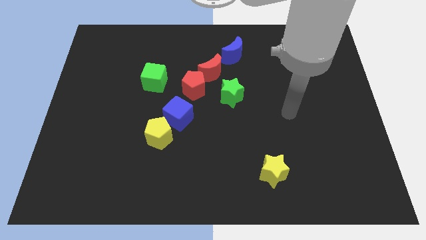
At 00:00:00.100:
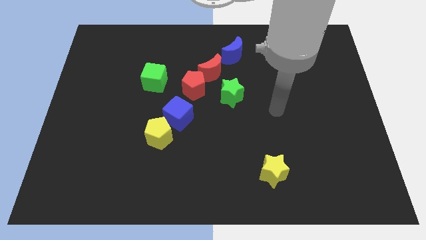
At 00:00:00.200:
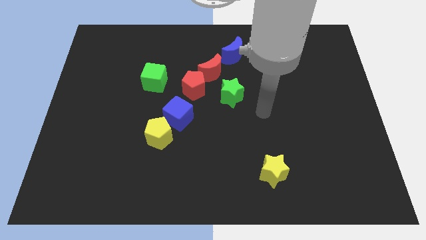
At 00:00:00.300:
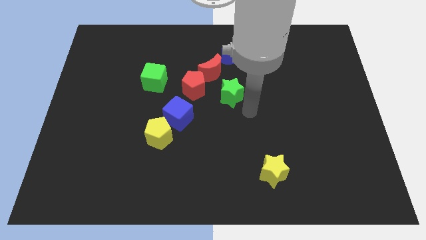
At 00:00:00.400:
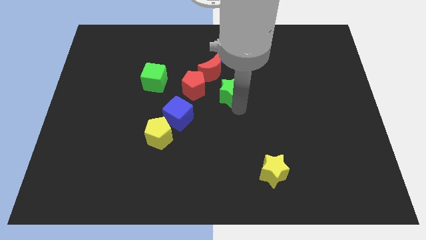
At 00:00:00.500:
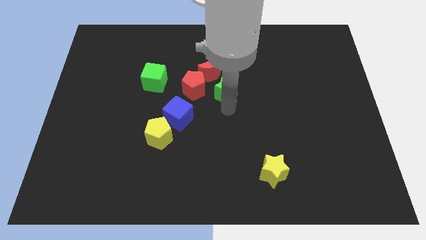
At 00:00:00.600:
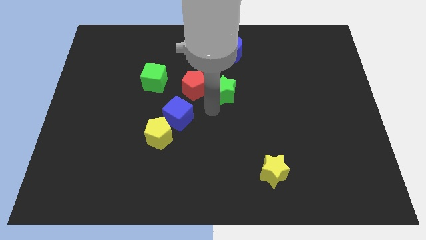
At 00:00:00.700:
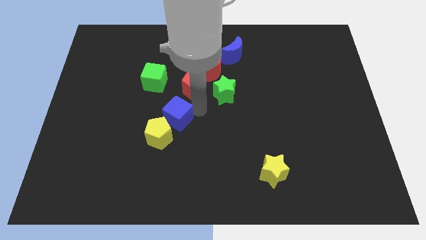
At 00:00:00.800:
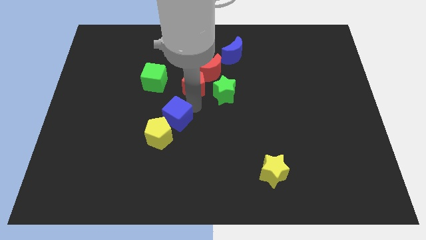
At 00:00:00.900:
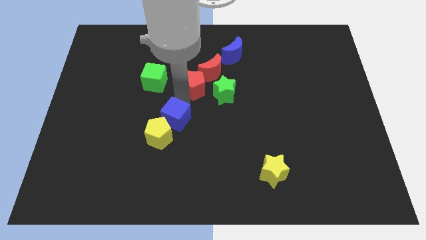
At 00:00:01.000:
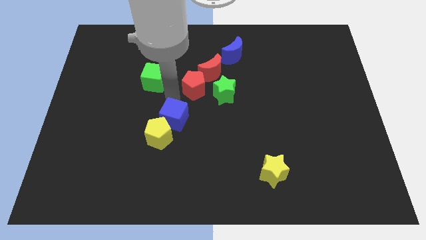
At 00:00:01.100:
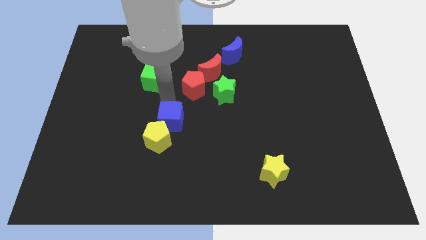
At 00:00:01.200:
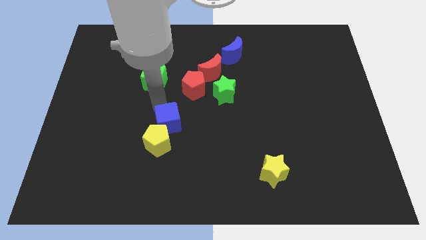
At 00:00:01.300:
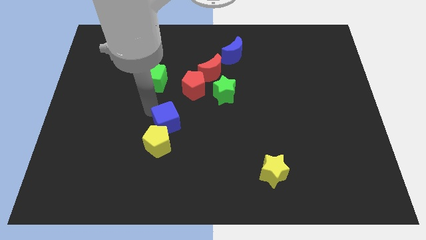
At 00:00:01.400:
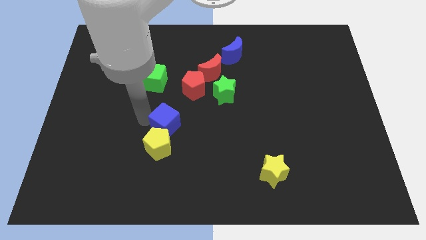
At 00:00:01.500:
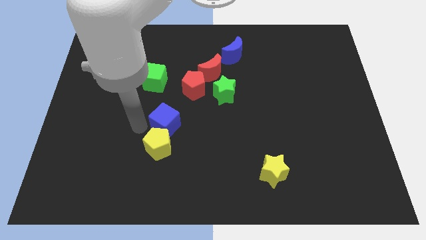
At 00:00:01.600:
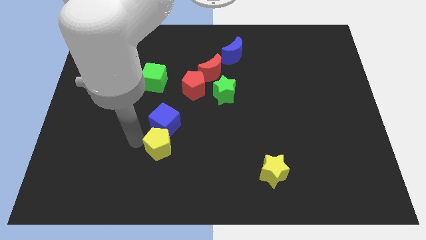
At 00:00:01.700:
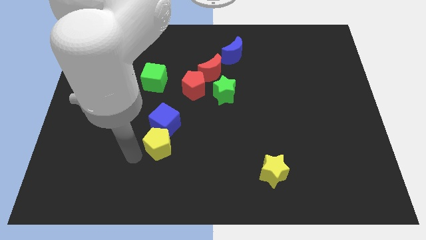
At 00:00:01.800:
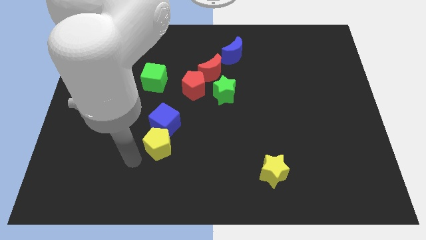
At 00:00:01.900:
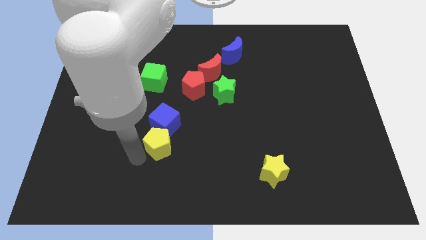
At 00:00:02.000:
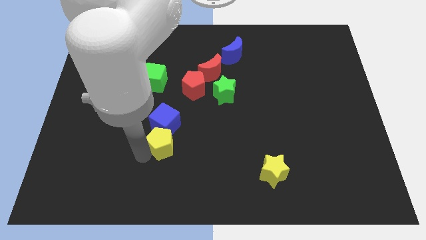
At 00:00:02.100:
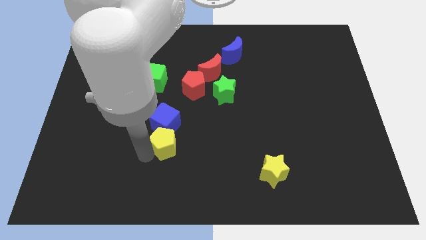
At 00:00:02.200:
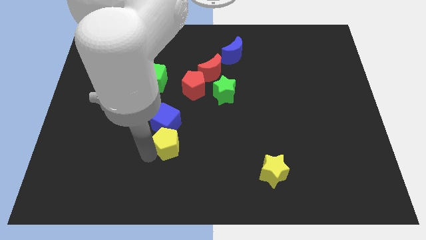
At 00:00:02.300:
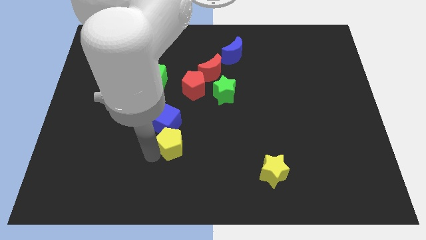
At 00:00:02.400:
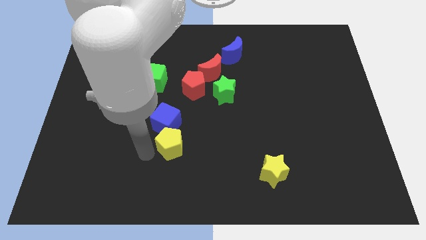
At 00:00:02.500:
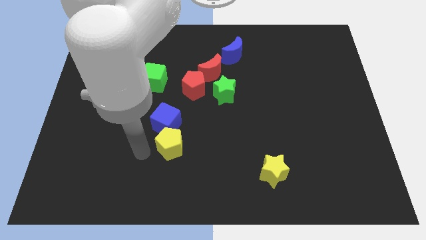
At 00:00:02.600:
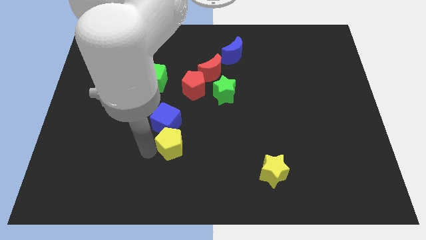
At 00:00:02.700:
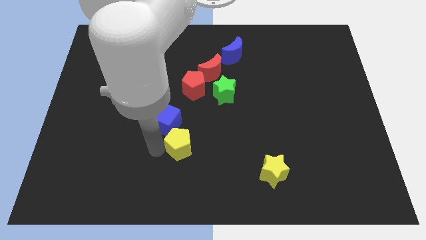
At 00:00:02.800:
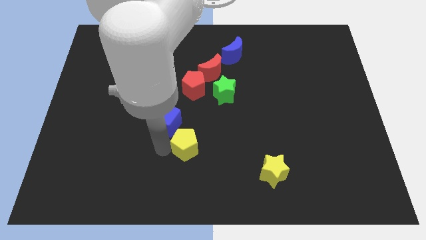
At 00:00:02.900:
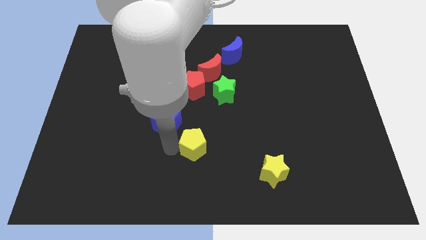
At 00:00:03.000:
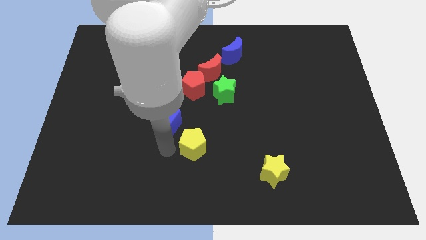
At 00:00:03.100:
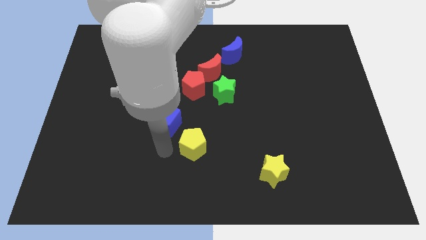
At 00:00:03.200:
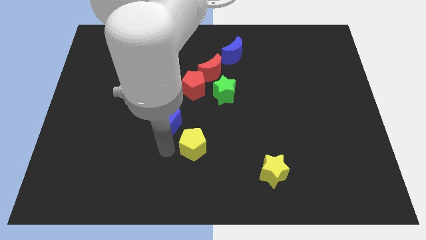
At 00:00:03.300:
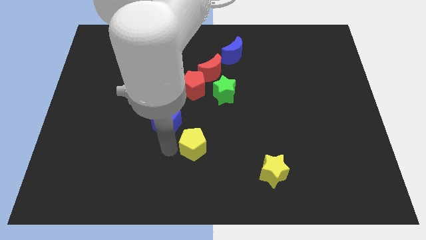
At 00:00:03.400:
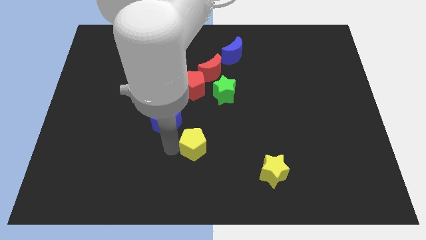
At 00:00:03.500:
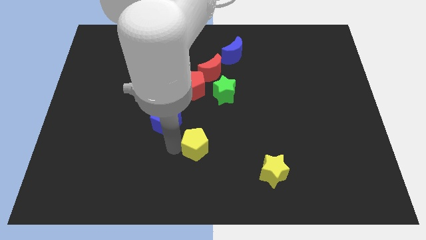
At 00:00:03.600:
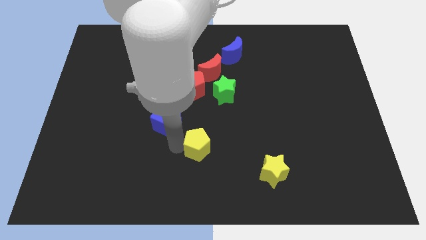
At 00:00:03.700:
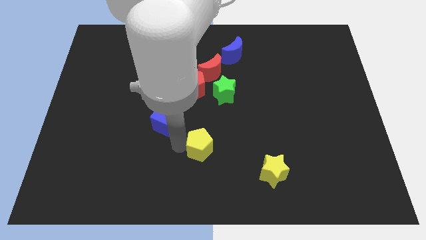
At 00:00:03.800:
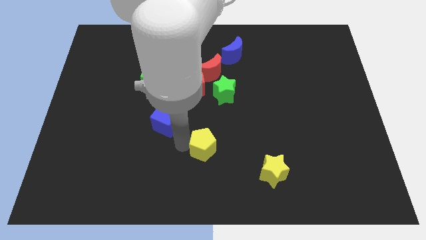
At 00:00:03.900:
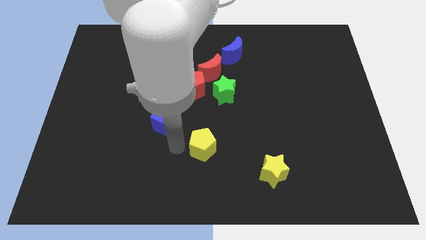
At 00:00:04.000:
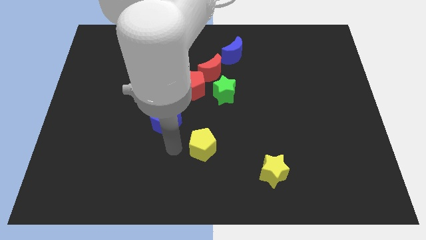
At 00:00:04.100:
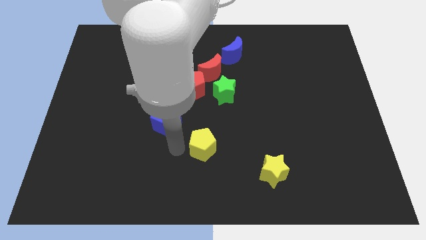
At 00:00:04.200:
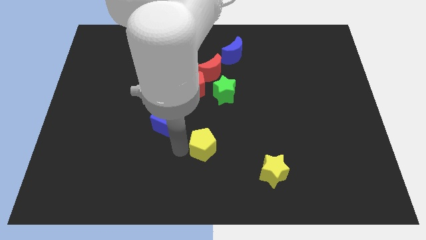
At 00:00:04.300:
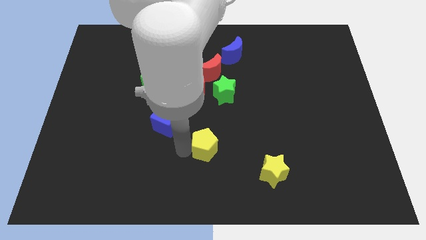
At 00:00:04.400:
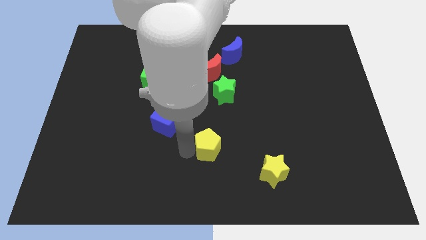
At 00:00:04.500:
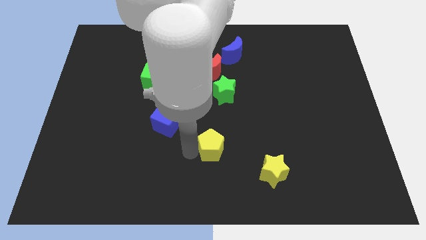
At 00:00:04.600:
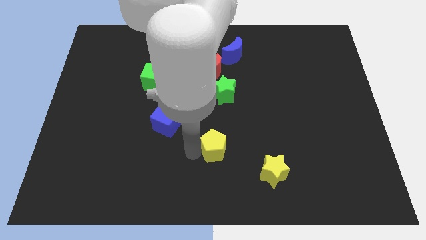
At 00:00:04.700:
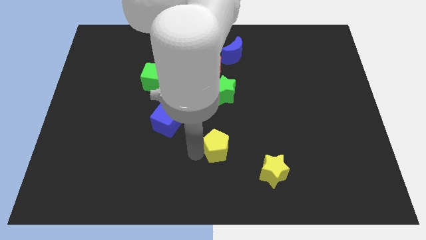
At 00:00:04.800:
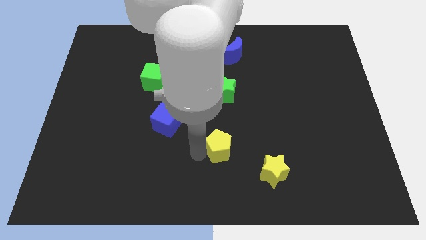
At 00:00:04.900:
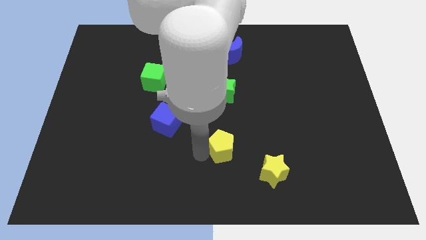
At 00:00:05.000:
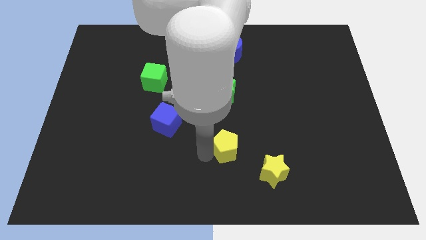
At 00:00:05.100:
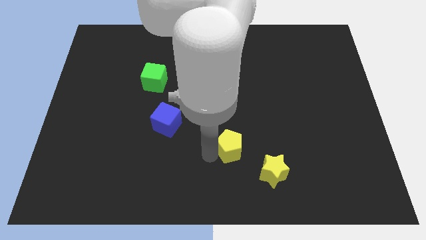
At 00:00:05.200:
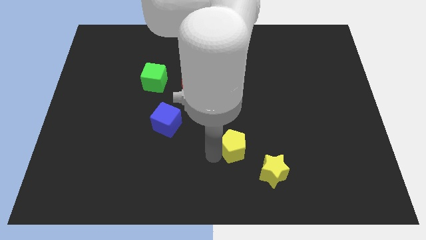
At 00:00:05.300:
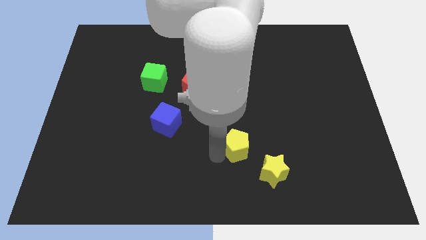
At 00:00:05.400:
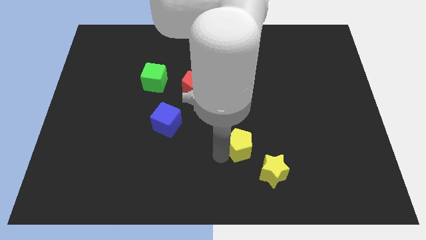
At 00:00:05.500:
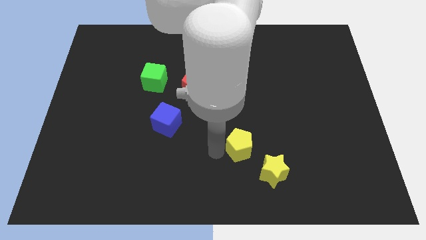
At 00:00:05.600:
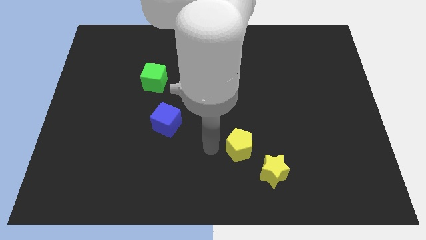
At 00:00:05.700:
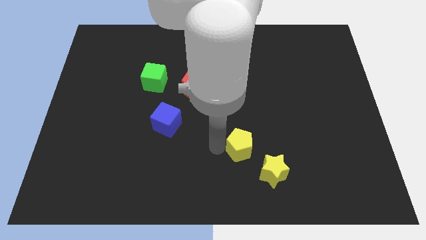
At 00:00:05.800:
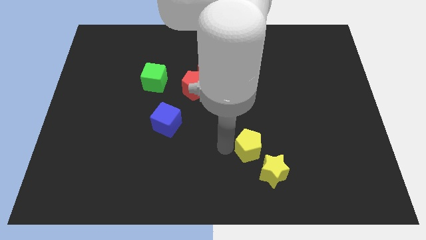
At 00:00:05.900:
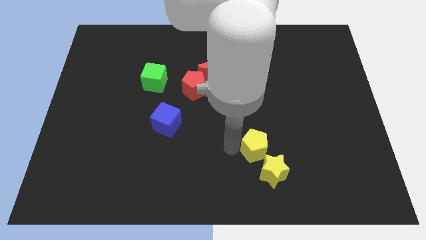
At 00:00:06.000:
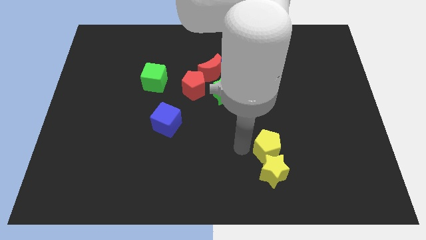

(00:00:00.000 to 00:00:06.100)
move the yellow pentagon to the top right of the yellow star

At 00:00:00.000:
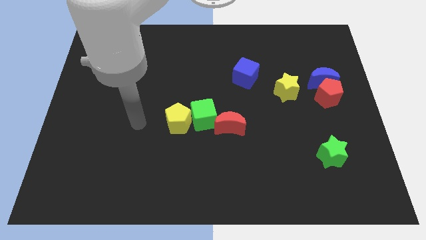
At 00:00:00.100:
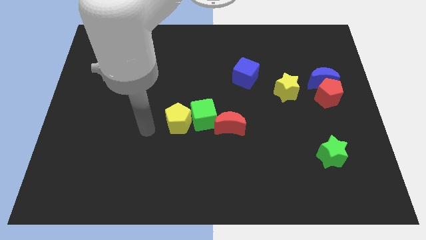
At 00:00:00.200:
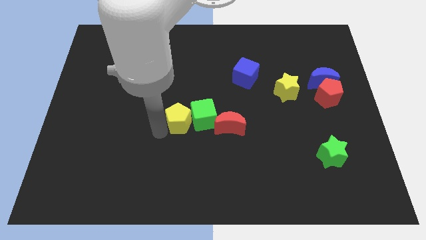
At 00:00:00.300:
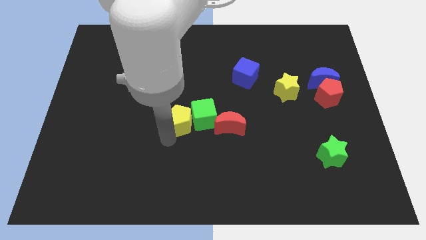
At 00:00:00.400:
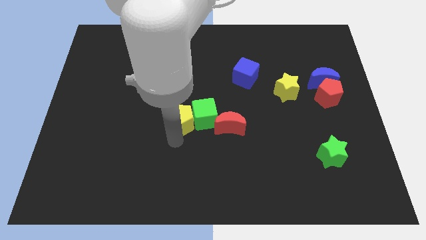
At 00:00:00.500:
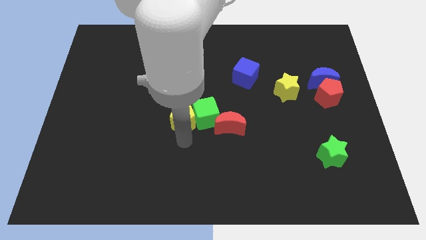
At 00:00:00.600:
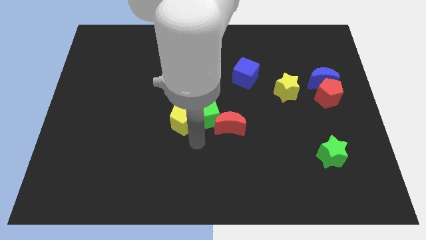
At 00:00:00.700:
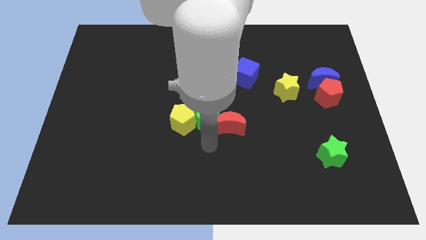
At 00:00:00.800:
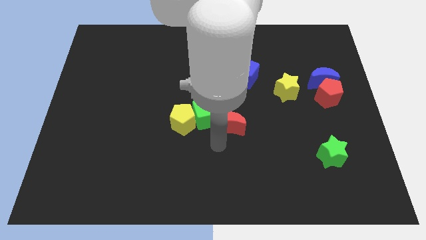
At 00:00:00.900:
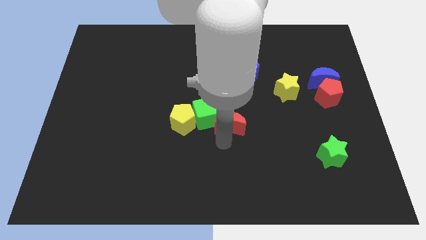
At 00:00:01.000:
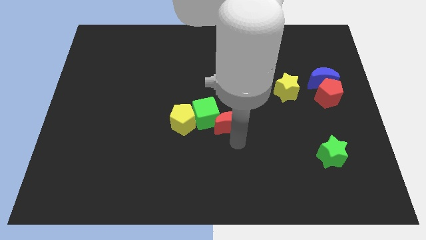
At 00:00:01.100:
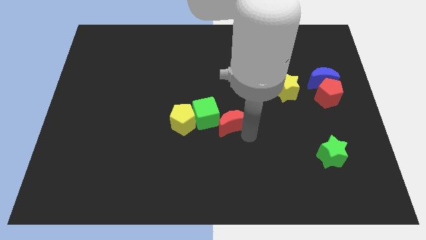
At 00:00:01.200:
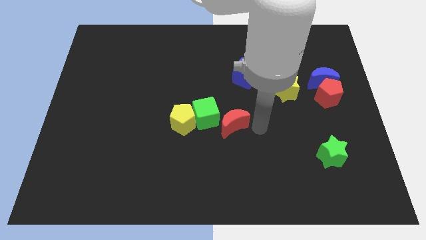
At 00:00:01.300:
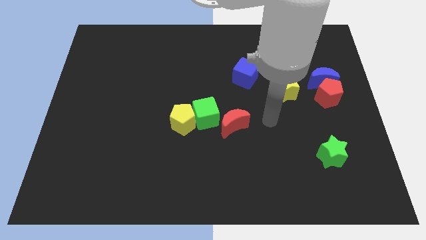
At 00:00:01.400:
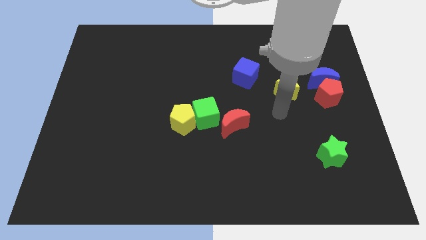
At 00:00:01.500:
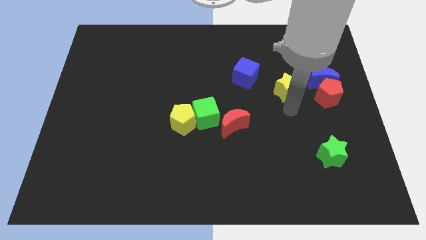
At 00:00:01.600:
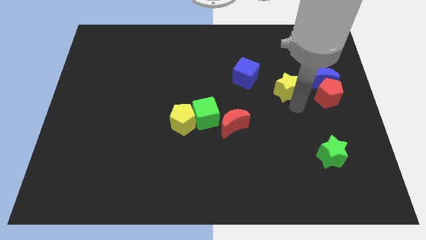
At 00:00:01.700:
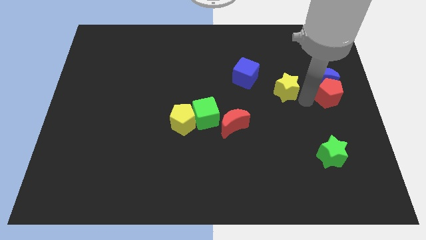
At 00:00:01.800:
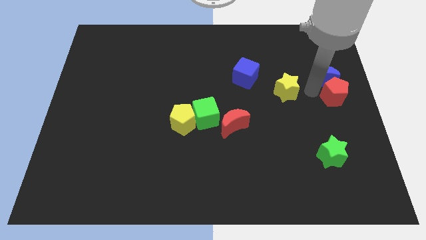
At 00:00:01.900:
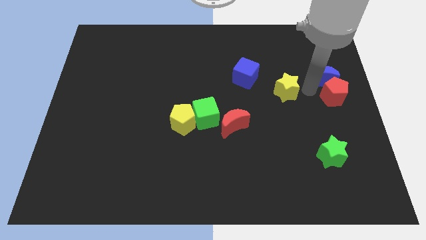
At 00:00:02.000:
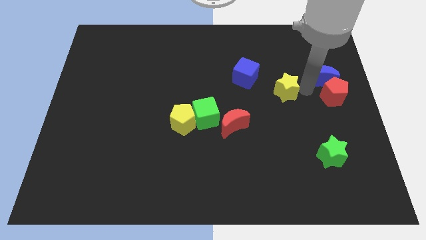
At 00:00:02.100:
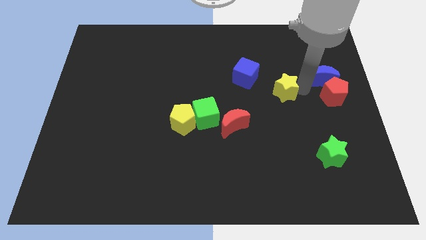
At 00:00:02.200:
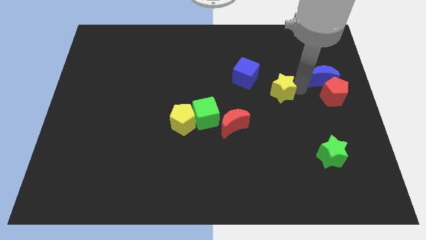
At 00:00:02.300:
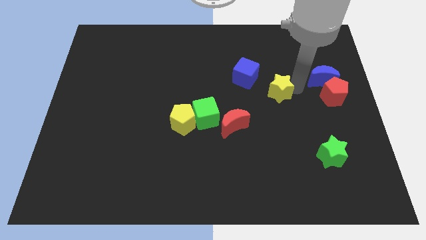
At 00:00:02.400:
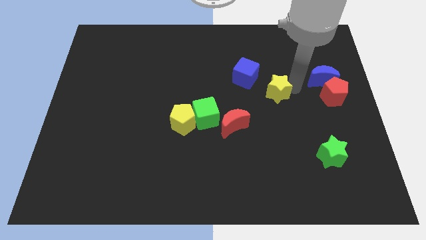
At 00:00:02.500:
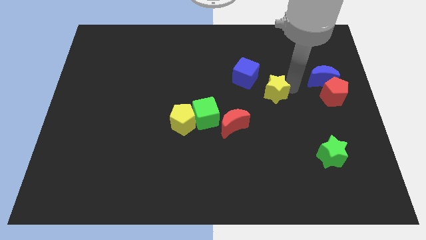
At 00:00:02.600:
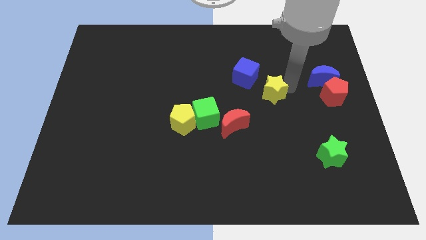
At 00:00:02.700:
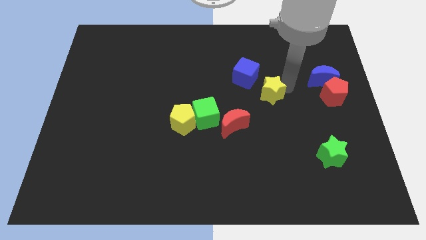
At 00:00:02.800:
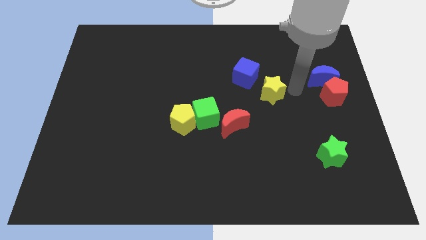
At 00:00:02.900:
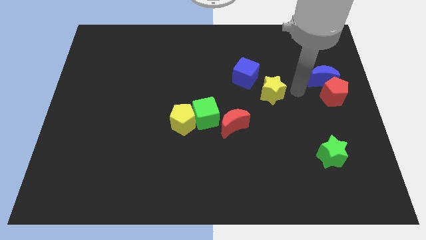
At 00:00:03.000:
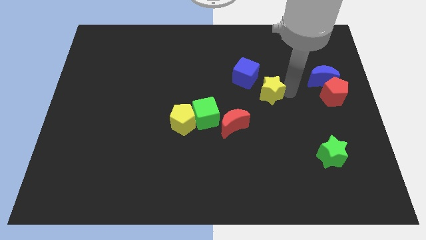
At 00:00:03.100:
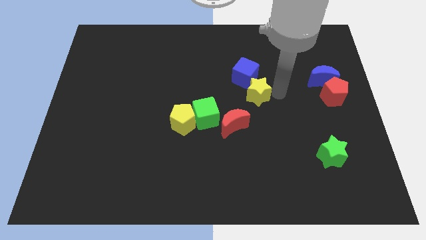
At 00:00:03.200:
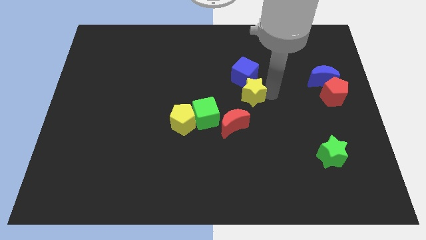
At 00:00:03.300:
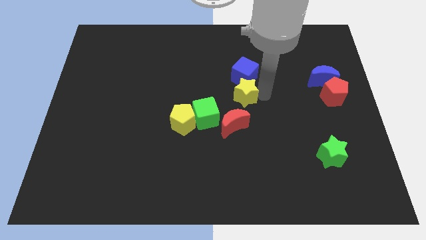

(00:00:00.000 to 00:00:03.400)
put the yellow star to the top right of the green cube
